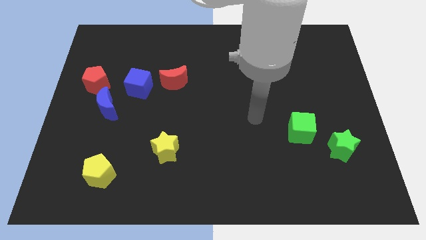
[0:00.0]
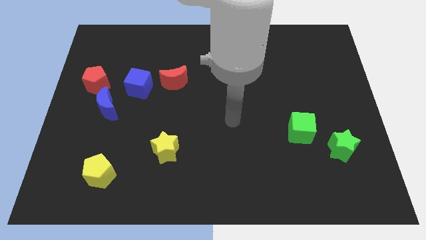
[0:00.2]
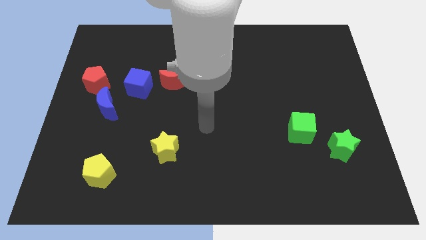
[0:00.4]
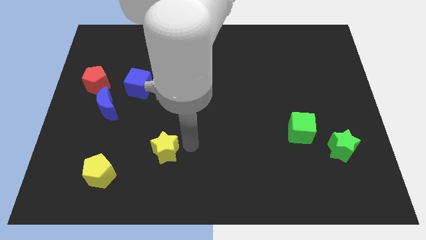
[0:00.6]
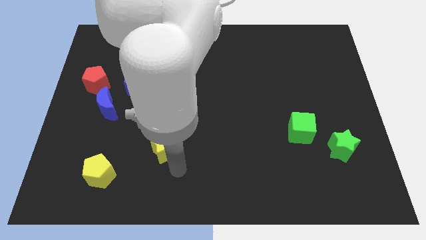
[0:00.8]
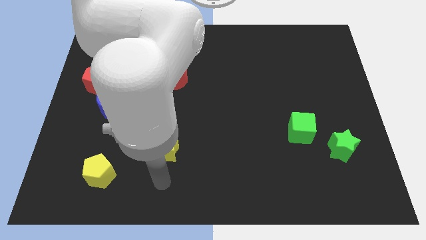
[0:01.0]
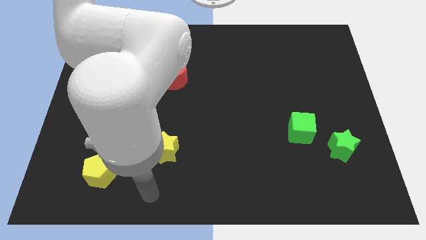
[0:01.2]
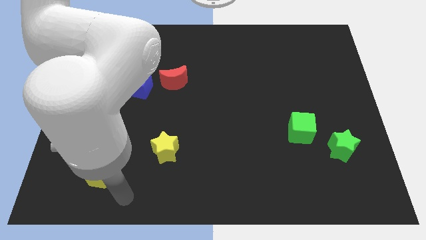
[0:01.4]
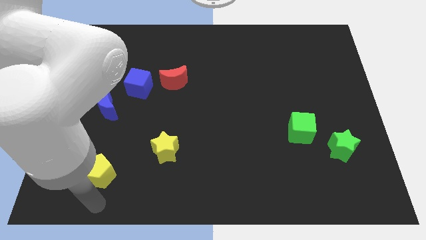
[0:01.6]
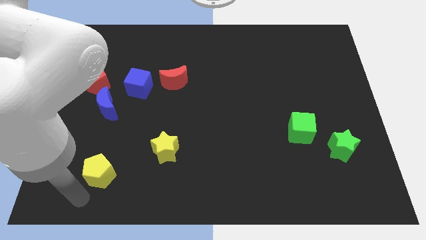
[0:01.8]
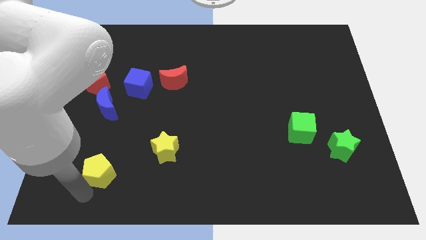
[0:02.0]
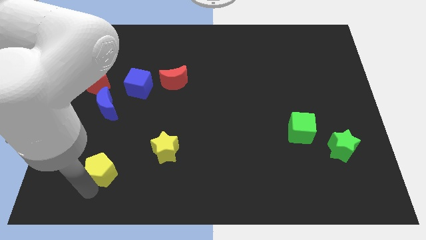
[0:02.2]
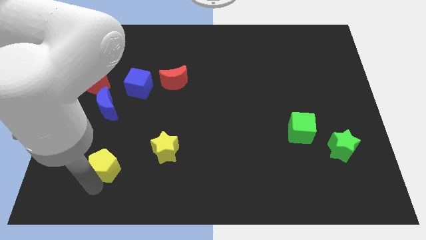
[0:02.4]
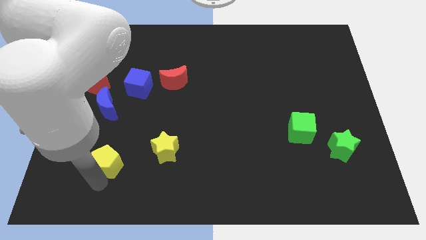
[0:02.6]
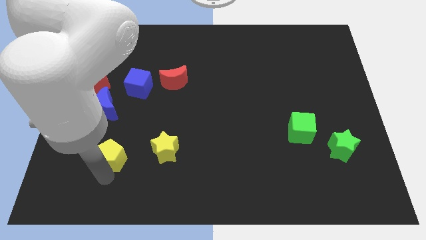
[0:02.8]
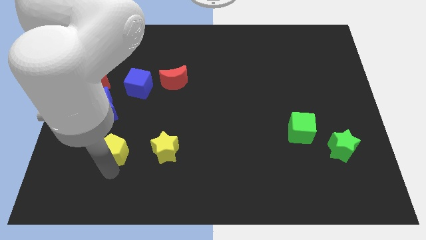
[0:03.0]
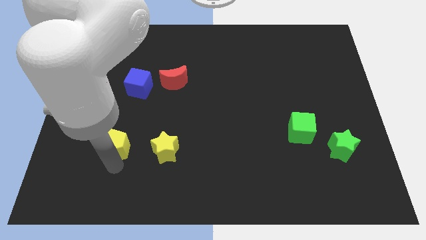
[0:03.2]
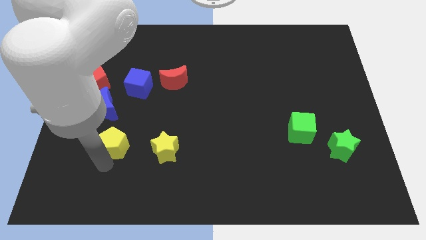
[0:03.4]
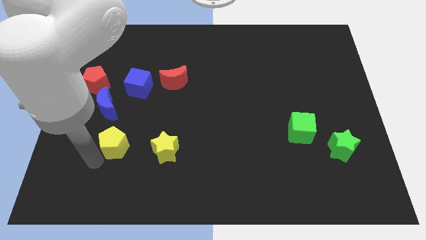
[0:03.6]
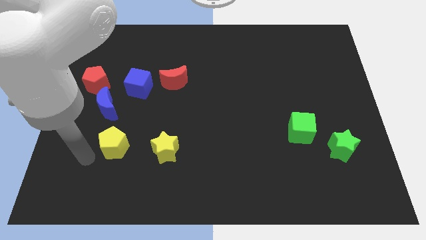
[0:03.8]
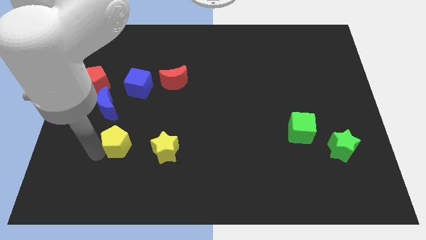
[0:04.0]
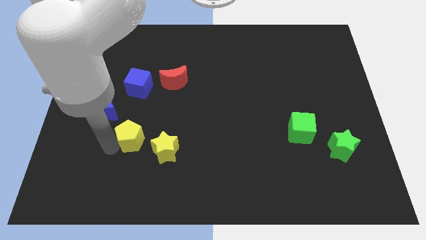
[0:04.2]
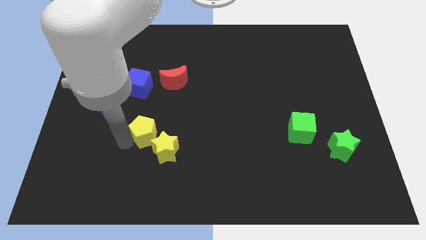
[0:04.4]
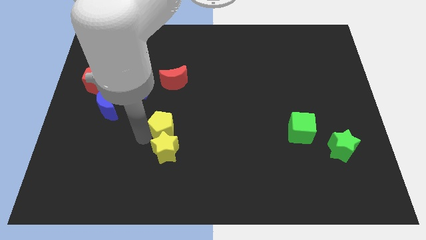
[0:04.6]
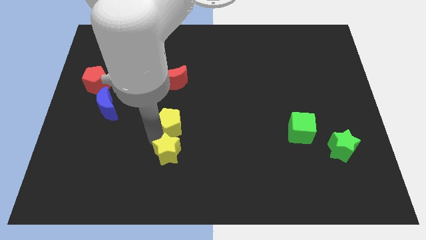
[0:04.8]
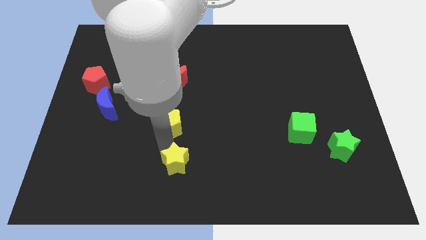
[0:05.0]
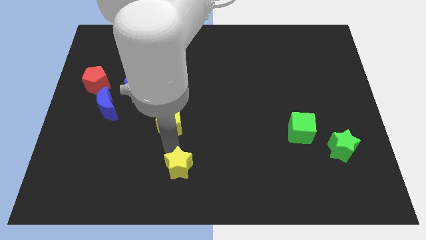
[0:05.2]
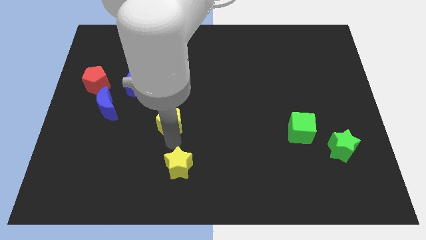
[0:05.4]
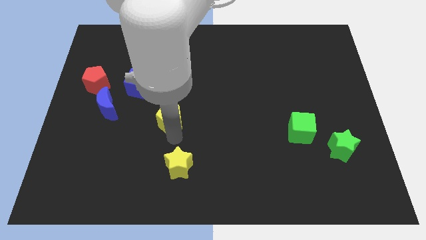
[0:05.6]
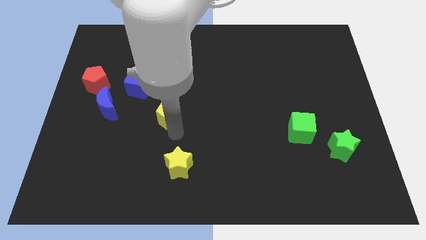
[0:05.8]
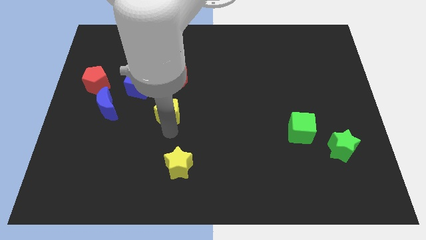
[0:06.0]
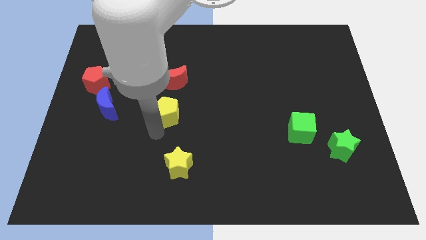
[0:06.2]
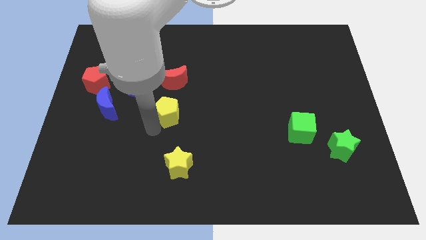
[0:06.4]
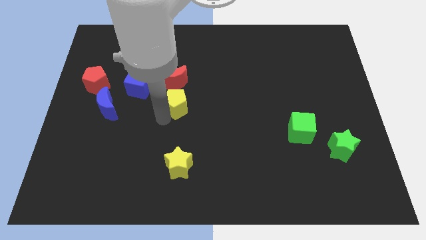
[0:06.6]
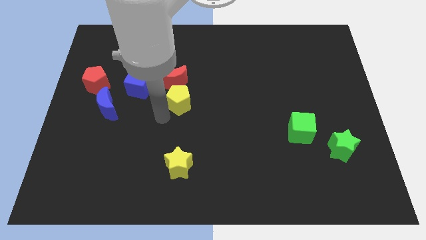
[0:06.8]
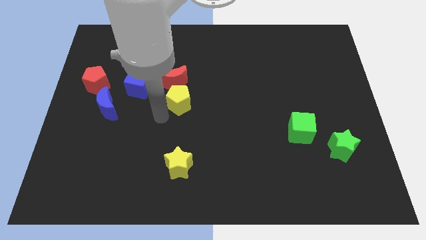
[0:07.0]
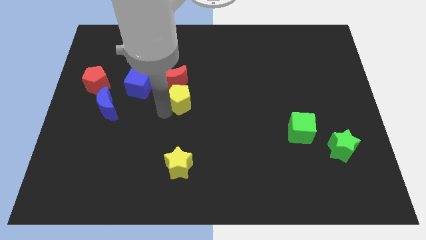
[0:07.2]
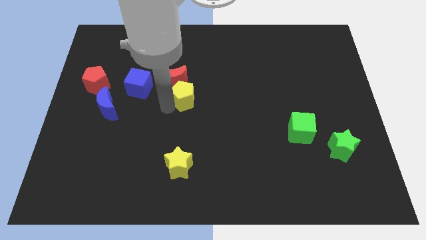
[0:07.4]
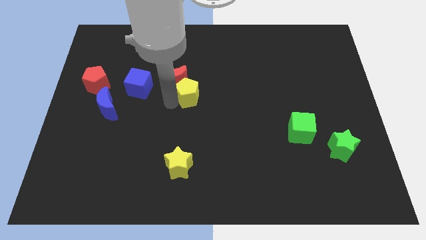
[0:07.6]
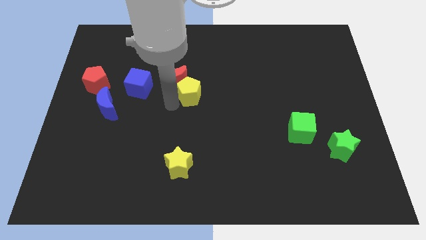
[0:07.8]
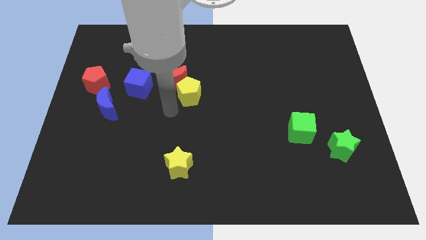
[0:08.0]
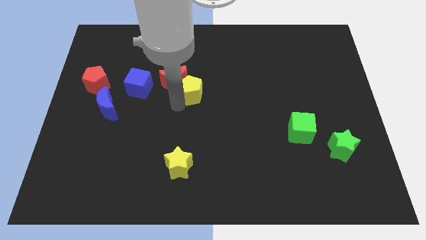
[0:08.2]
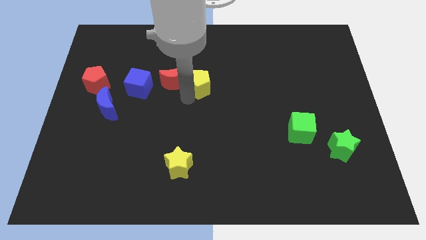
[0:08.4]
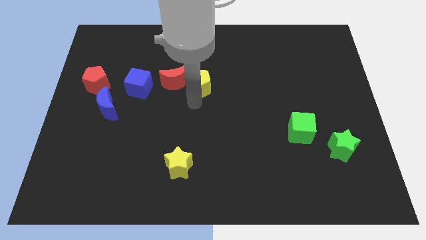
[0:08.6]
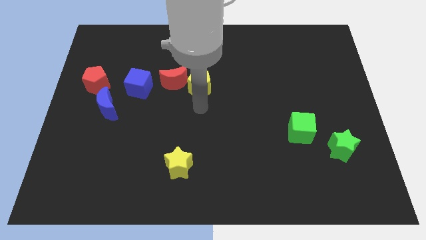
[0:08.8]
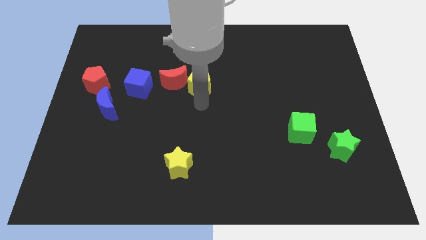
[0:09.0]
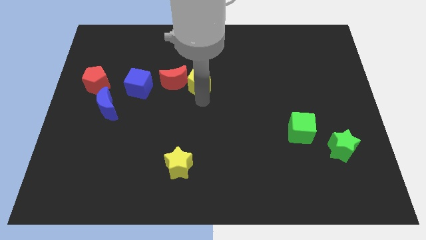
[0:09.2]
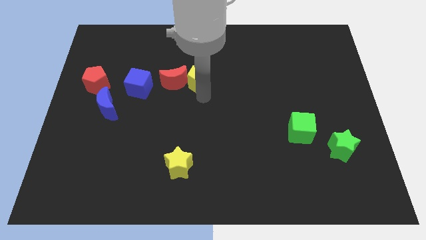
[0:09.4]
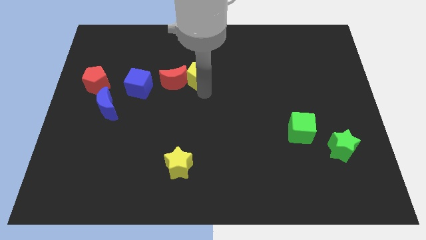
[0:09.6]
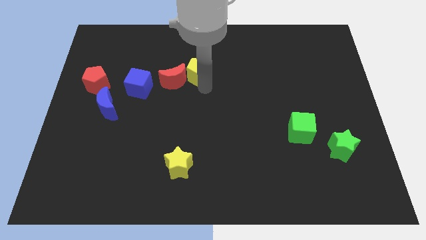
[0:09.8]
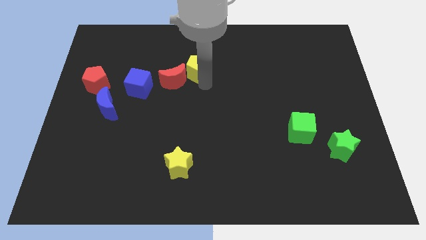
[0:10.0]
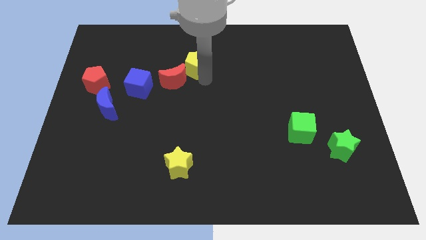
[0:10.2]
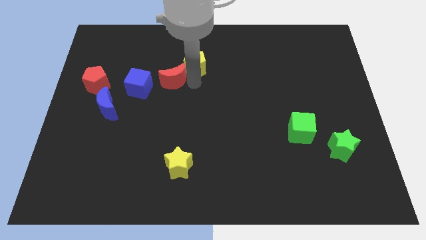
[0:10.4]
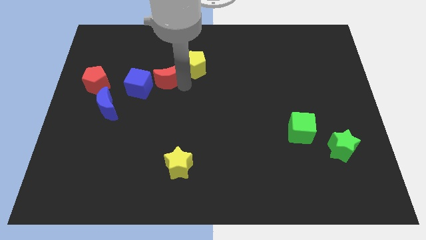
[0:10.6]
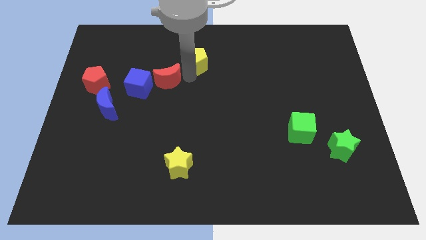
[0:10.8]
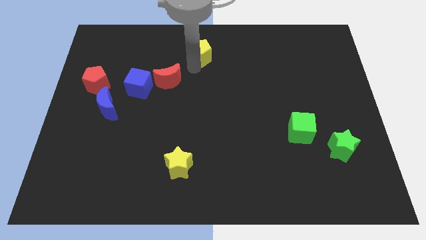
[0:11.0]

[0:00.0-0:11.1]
push the yellow pentagon to the towards your base

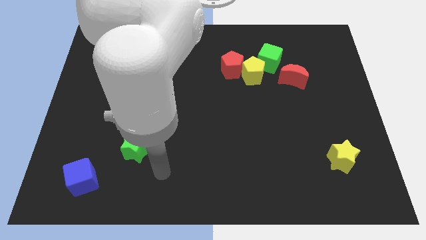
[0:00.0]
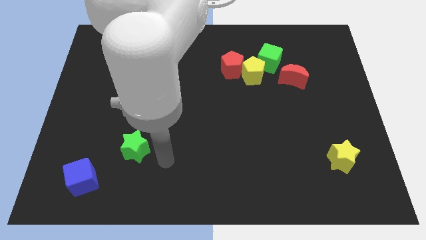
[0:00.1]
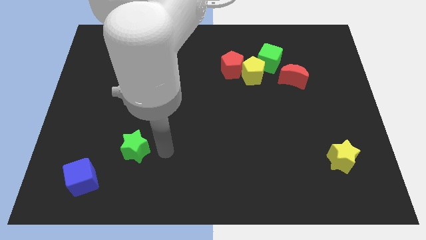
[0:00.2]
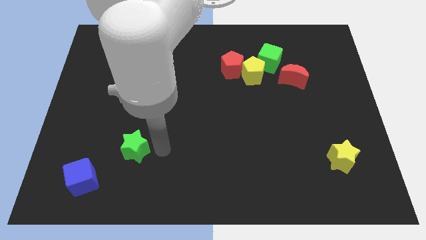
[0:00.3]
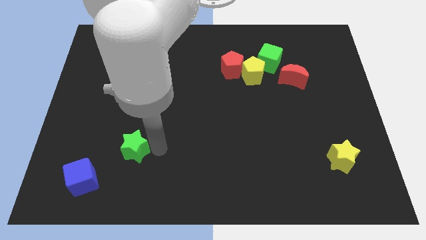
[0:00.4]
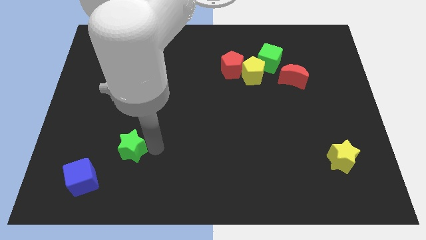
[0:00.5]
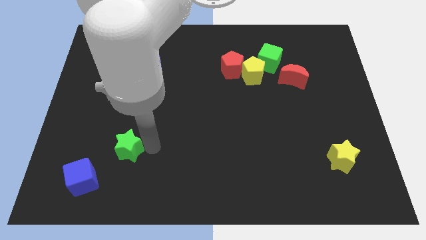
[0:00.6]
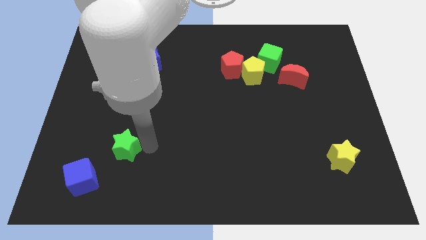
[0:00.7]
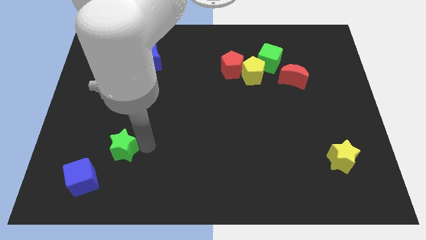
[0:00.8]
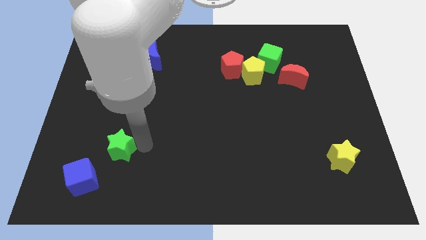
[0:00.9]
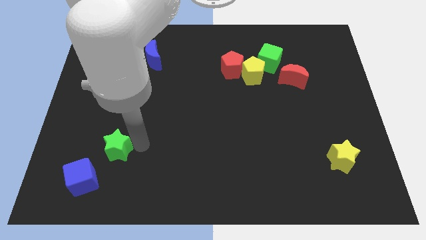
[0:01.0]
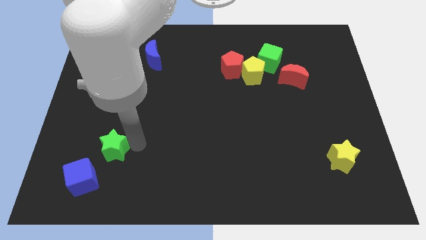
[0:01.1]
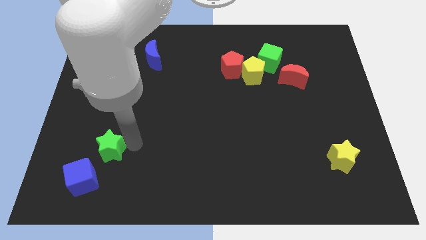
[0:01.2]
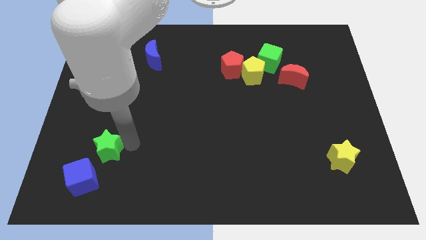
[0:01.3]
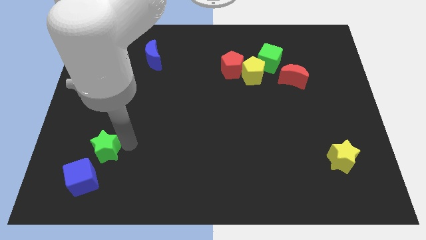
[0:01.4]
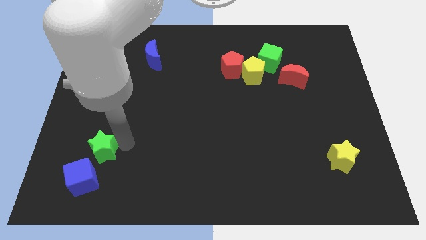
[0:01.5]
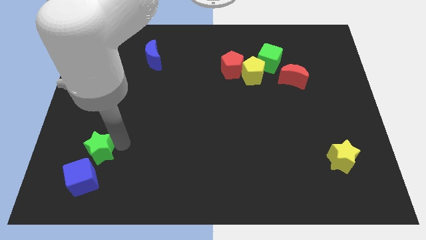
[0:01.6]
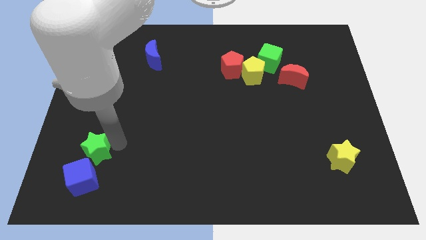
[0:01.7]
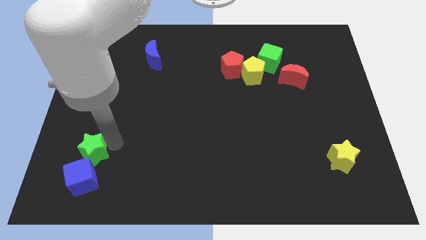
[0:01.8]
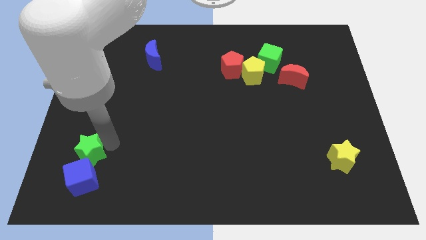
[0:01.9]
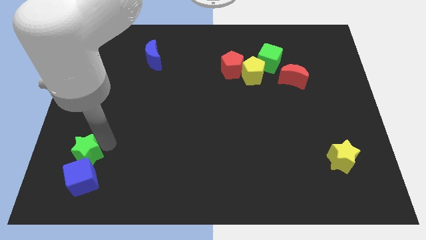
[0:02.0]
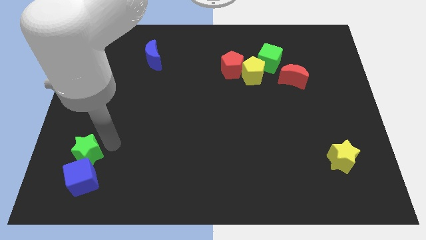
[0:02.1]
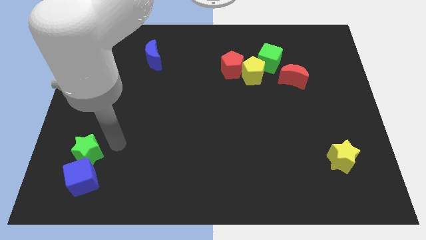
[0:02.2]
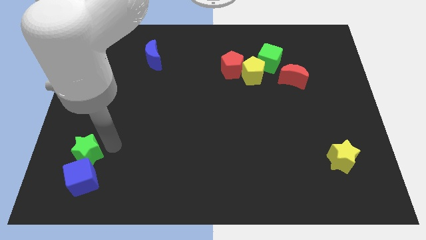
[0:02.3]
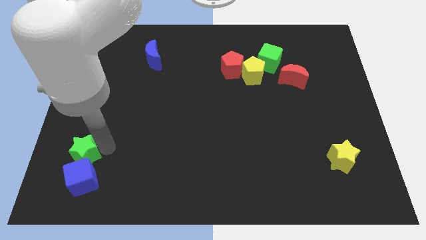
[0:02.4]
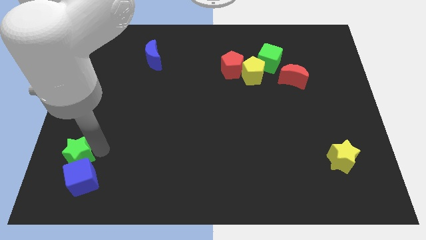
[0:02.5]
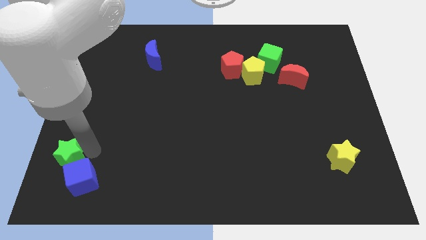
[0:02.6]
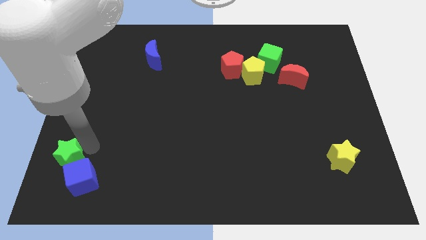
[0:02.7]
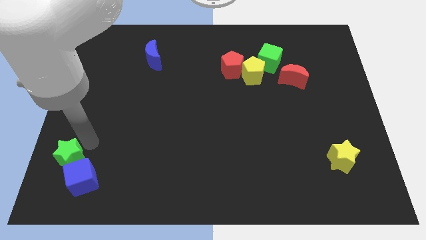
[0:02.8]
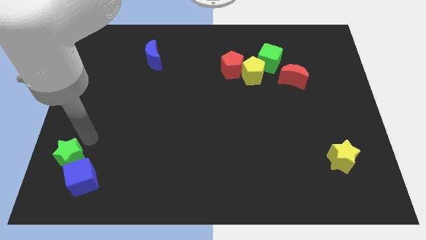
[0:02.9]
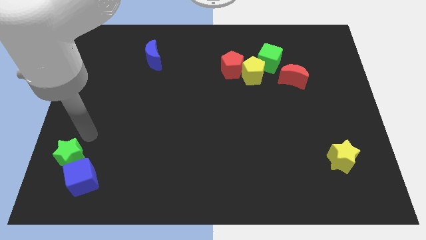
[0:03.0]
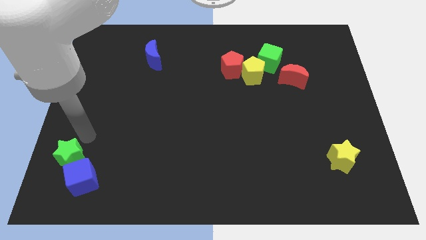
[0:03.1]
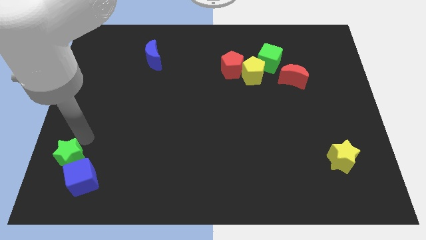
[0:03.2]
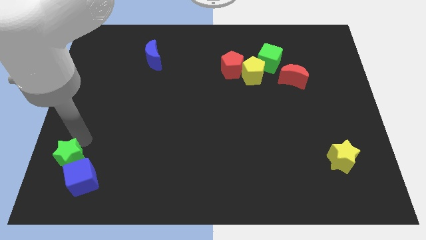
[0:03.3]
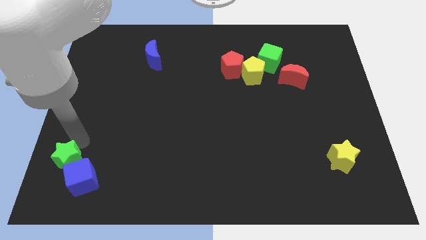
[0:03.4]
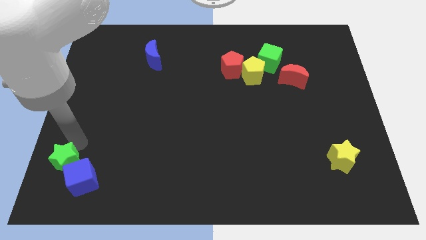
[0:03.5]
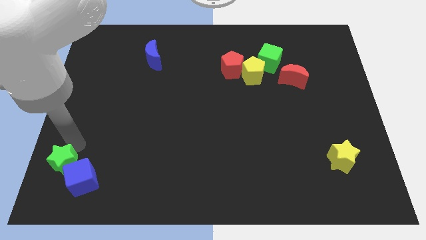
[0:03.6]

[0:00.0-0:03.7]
put the green star to the bottom left
